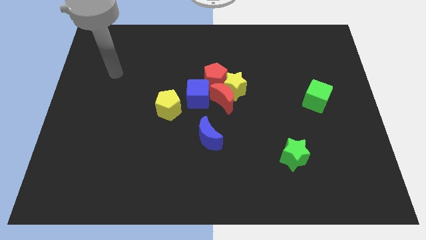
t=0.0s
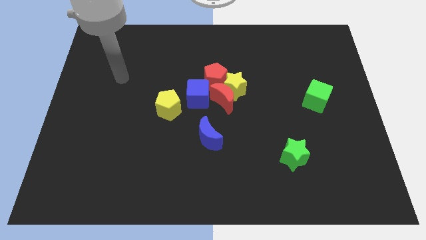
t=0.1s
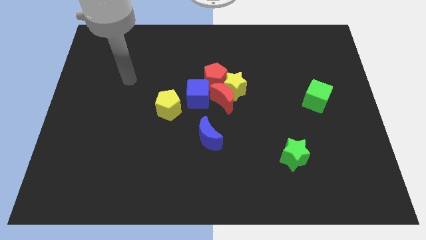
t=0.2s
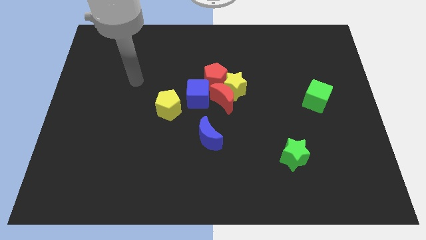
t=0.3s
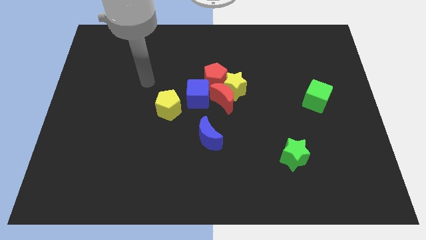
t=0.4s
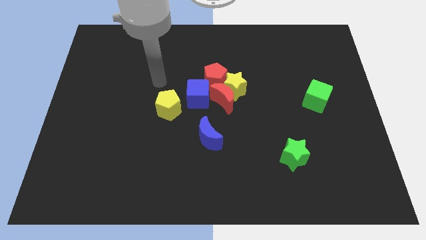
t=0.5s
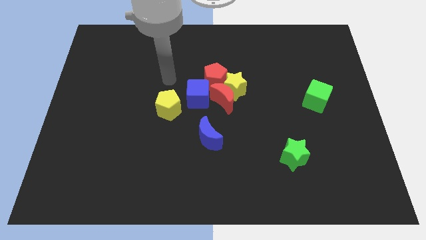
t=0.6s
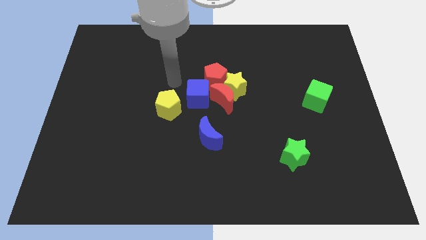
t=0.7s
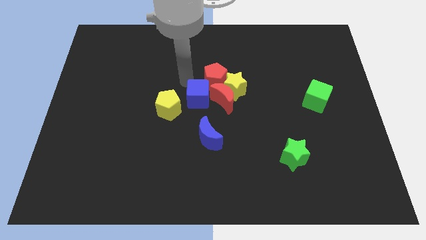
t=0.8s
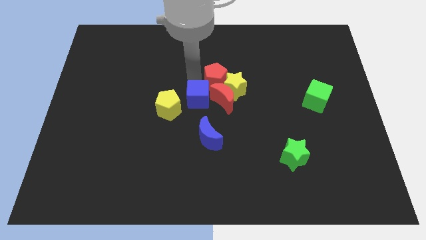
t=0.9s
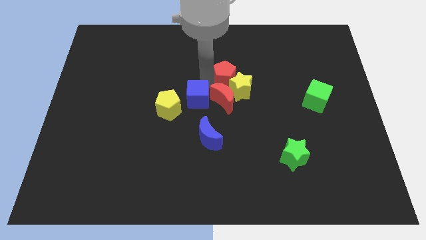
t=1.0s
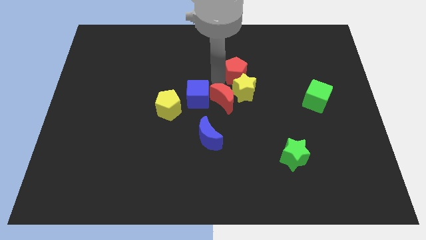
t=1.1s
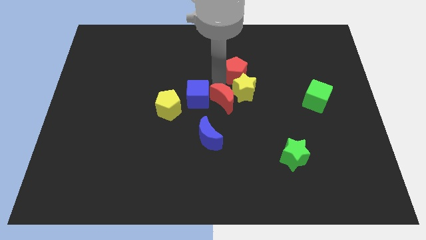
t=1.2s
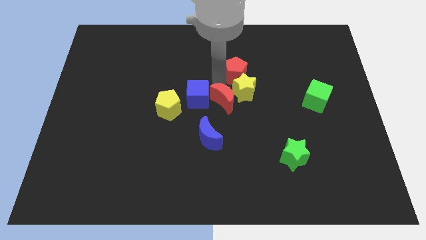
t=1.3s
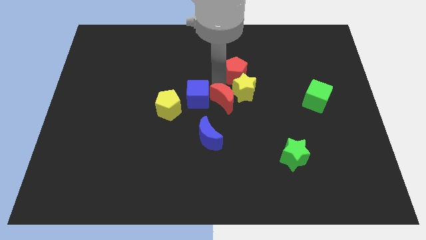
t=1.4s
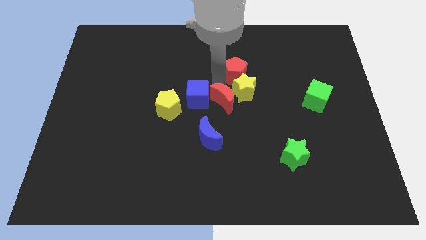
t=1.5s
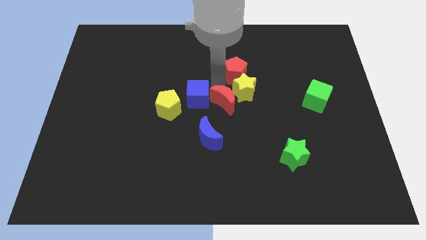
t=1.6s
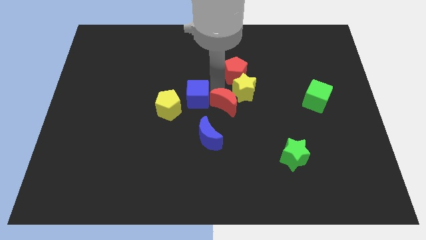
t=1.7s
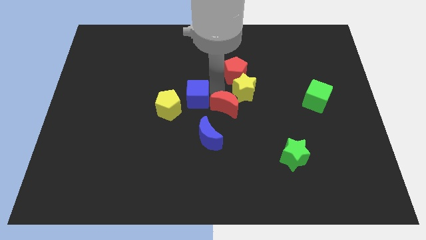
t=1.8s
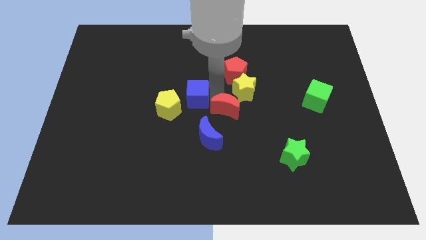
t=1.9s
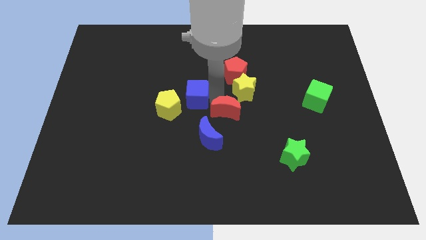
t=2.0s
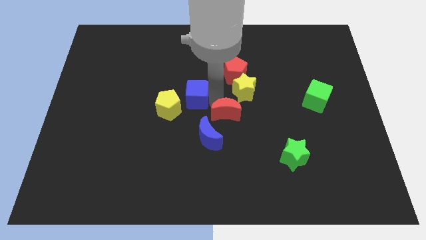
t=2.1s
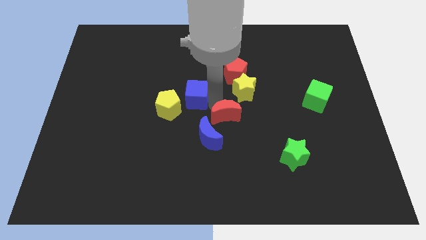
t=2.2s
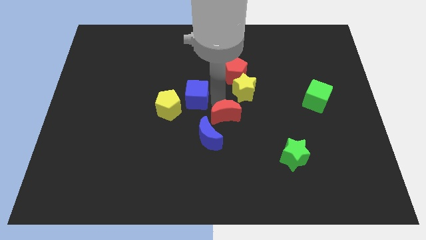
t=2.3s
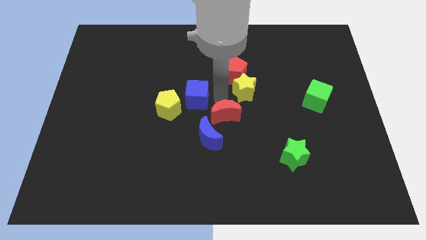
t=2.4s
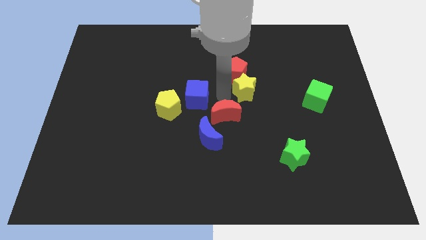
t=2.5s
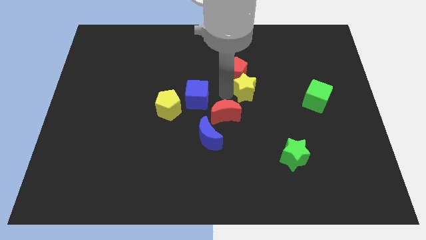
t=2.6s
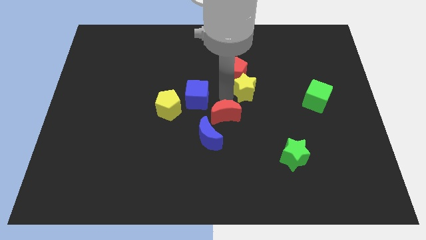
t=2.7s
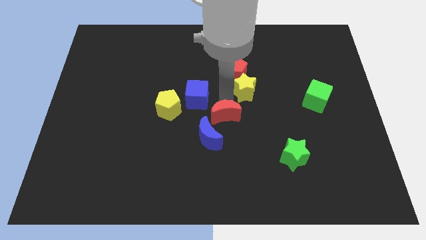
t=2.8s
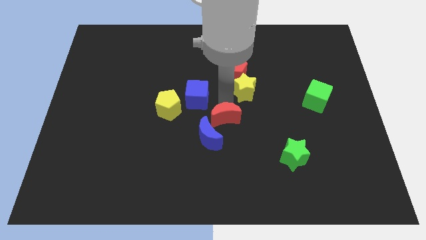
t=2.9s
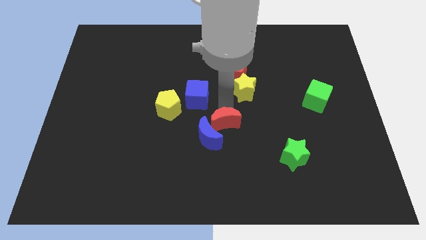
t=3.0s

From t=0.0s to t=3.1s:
move the red moon away from the group of blocks

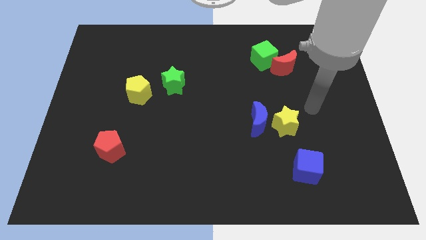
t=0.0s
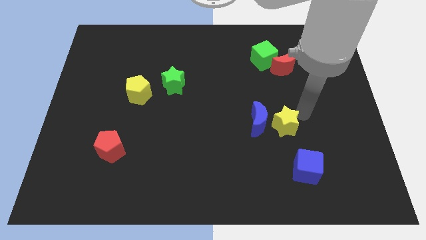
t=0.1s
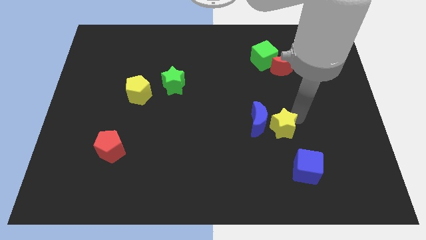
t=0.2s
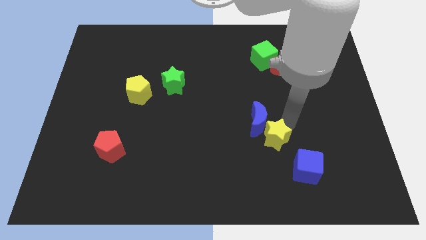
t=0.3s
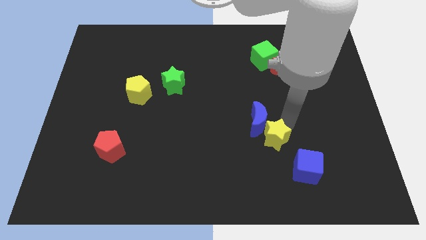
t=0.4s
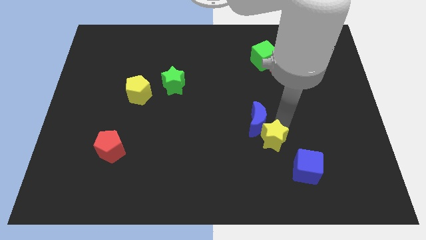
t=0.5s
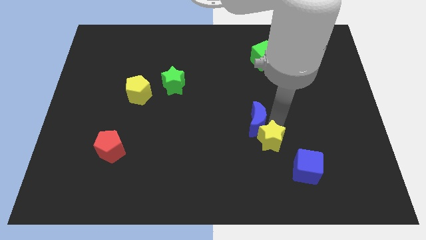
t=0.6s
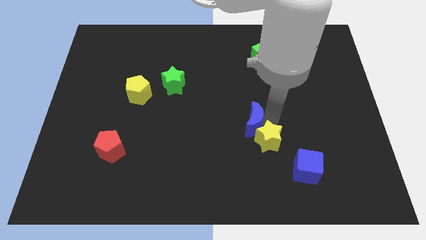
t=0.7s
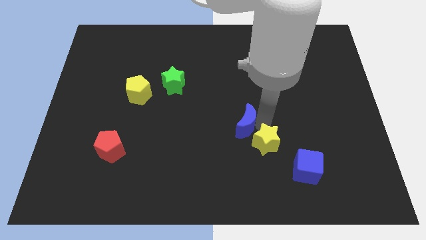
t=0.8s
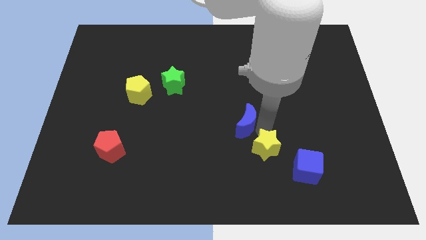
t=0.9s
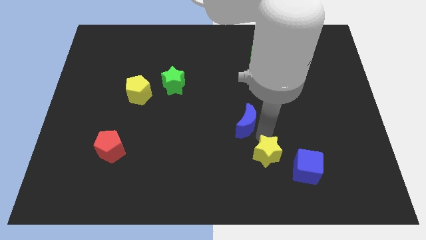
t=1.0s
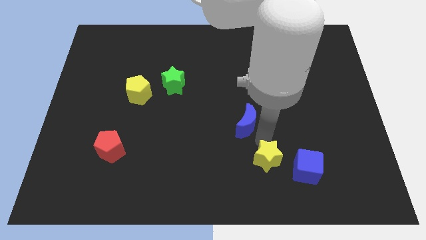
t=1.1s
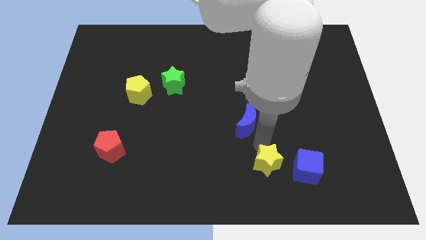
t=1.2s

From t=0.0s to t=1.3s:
move the blue moon away from the yellow star

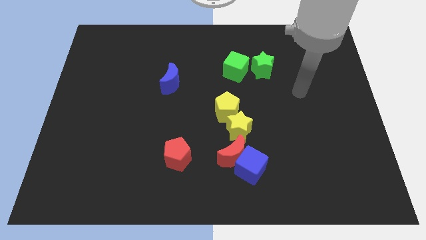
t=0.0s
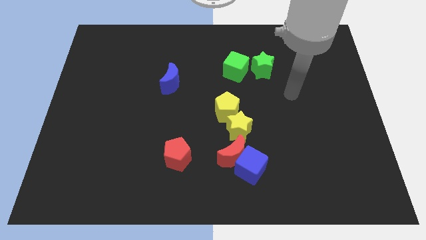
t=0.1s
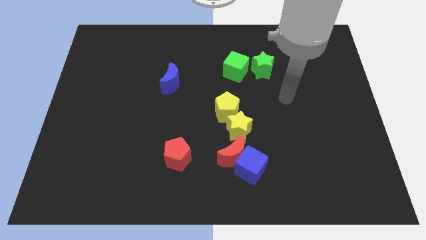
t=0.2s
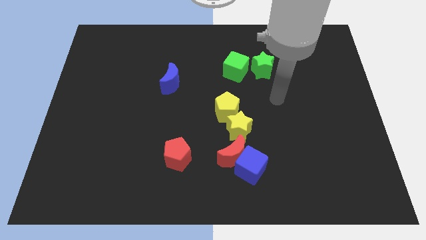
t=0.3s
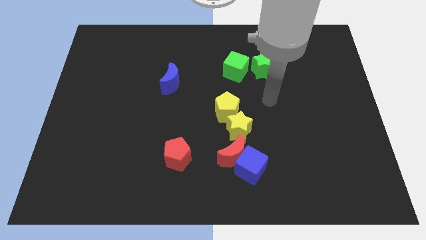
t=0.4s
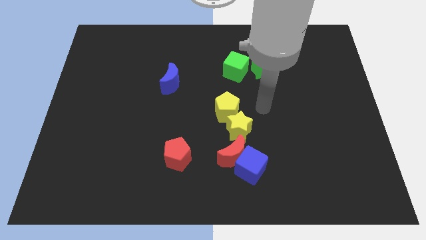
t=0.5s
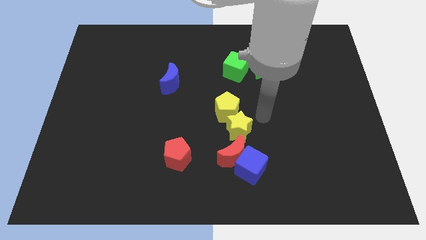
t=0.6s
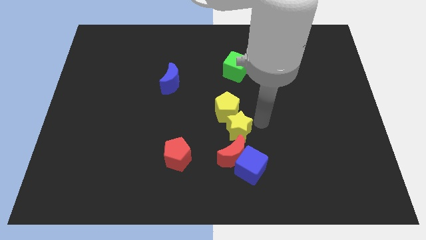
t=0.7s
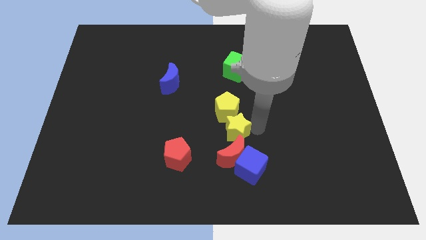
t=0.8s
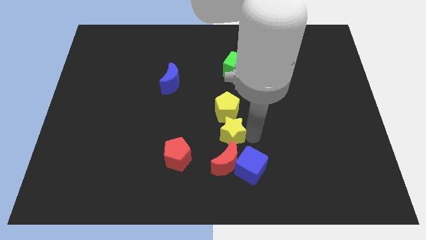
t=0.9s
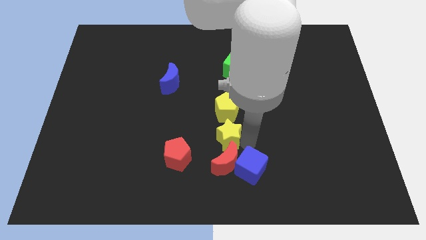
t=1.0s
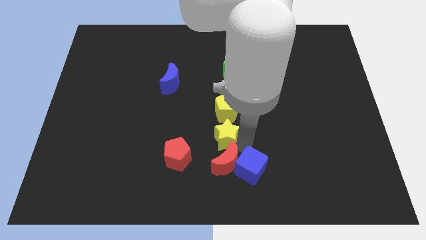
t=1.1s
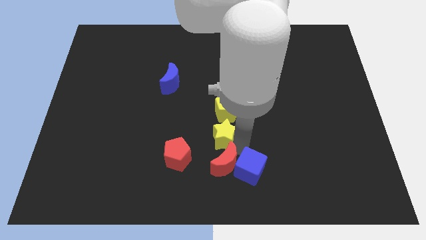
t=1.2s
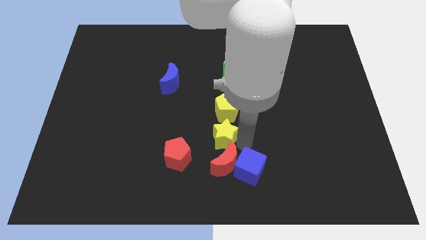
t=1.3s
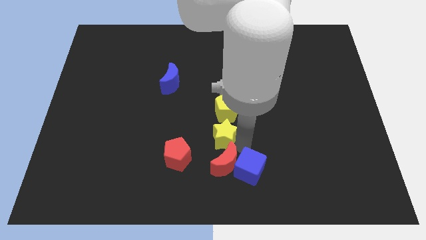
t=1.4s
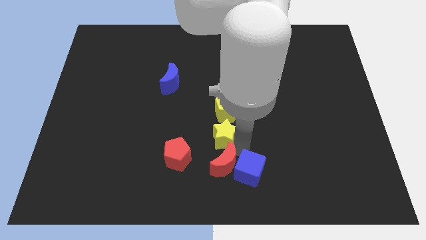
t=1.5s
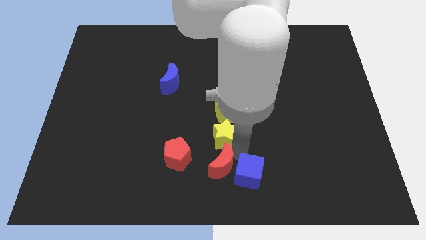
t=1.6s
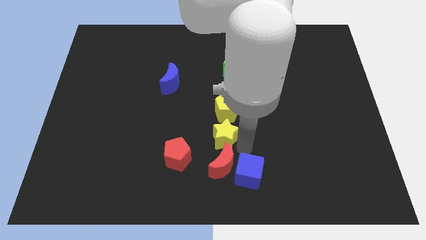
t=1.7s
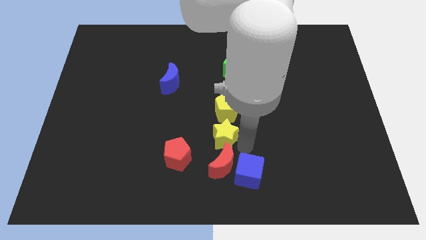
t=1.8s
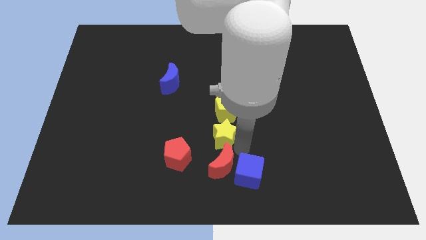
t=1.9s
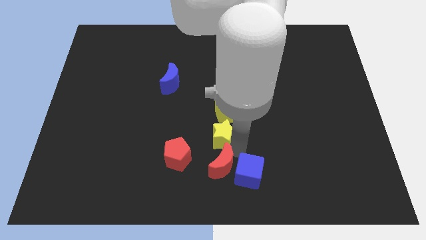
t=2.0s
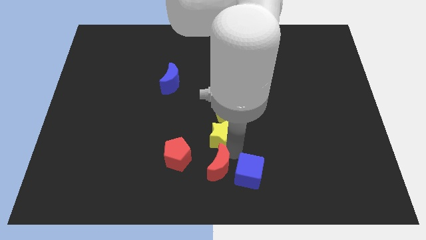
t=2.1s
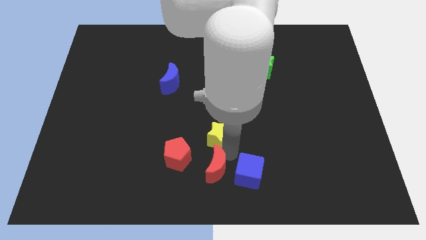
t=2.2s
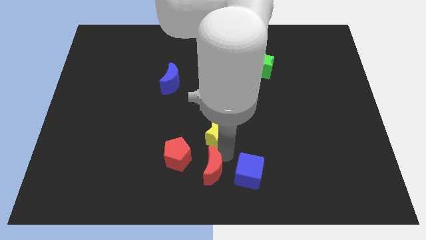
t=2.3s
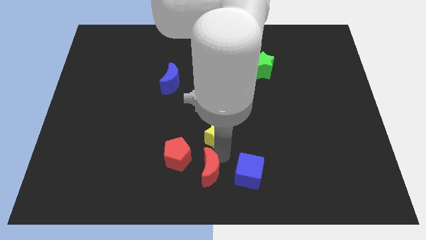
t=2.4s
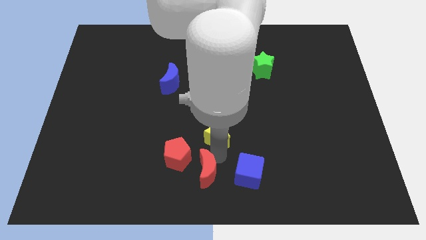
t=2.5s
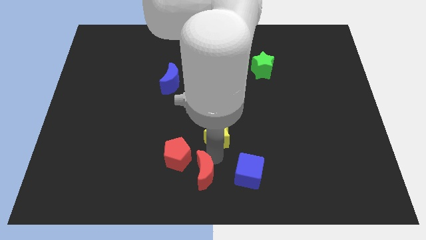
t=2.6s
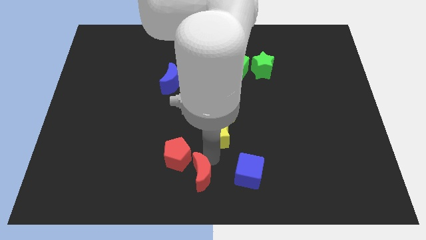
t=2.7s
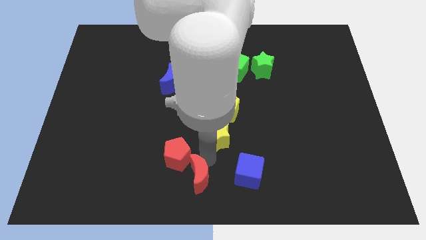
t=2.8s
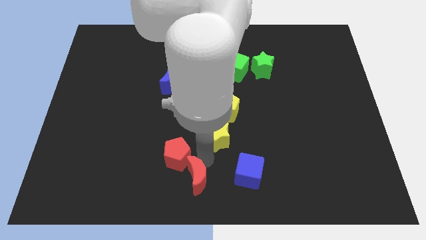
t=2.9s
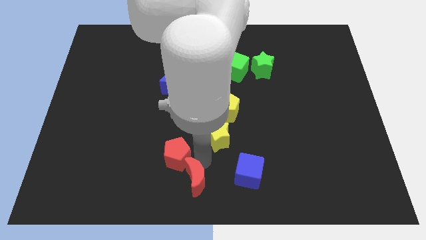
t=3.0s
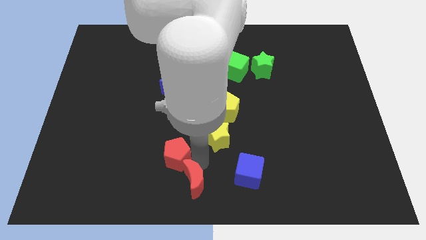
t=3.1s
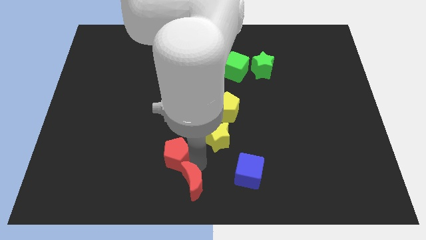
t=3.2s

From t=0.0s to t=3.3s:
pull the red moon apart from the blue cube and yellow star

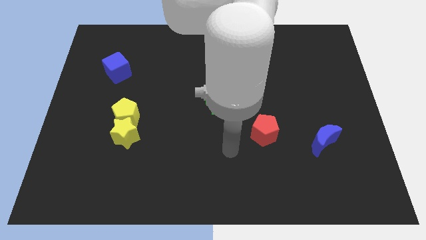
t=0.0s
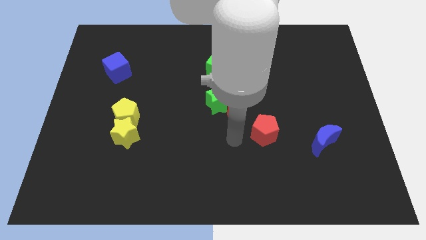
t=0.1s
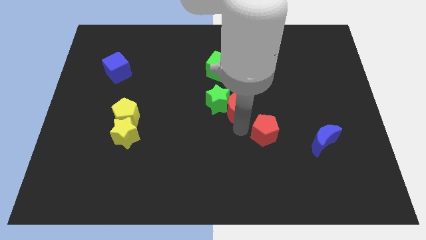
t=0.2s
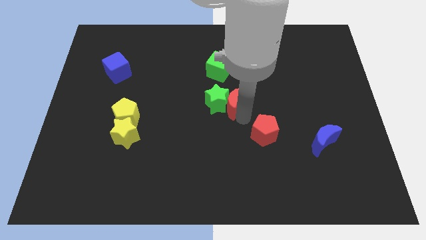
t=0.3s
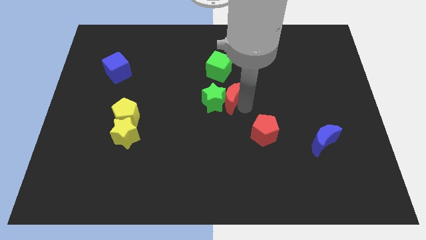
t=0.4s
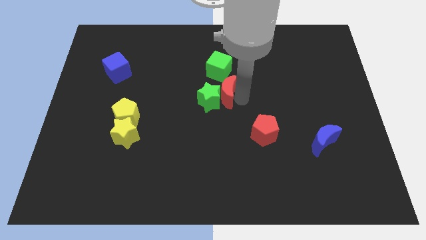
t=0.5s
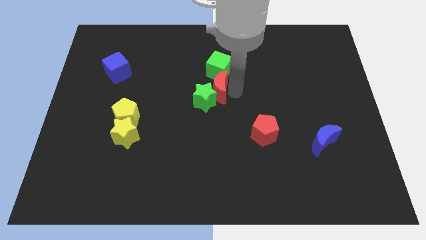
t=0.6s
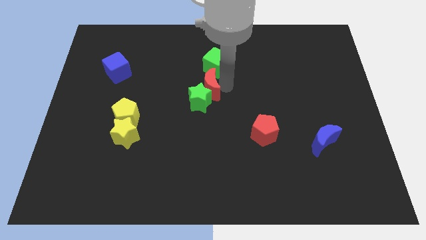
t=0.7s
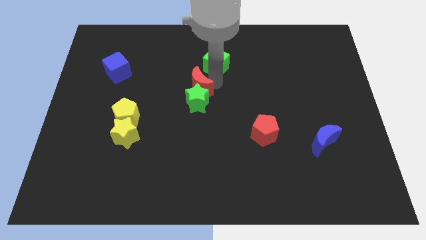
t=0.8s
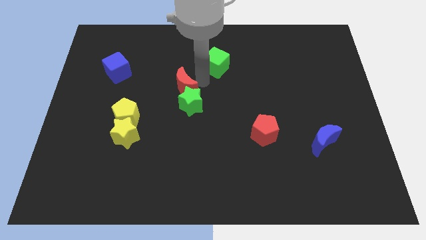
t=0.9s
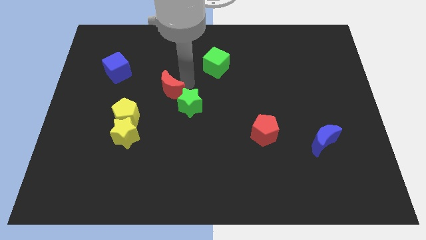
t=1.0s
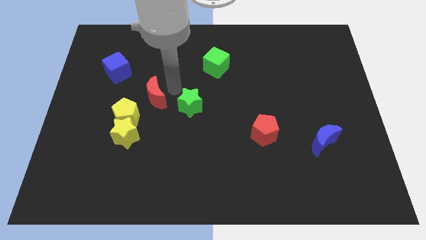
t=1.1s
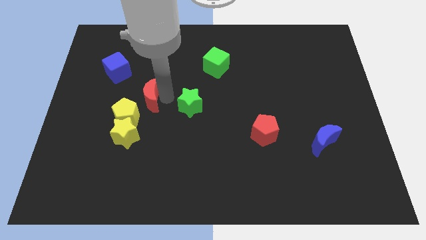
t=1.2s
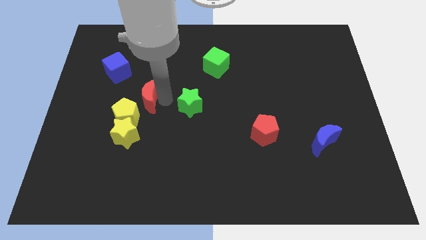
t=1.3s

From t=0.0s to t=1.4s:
pull the green star apart from the red moon

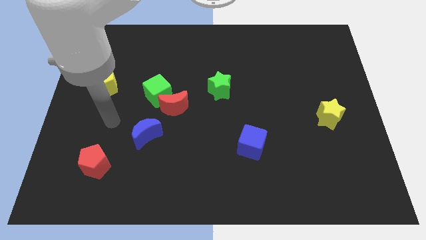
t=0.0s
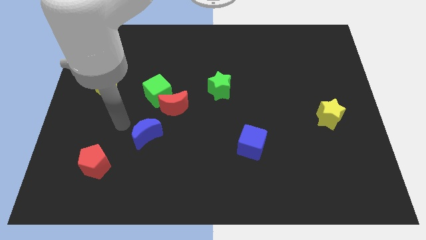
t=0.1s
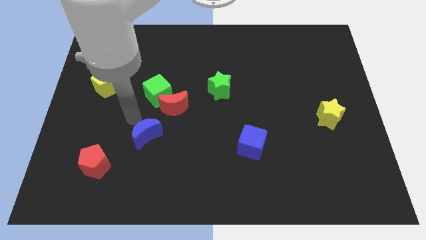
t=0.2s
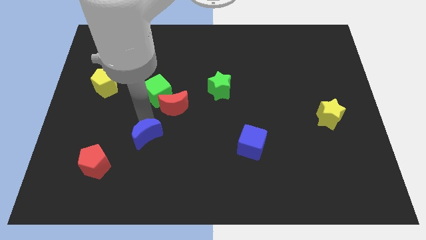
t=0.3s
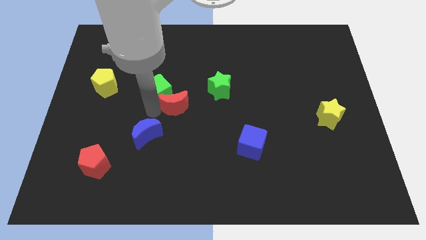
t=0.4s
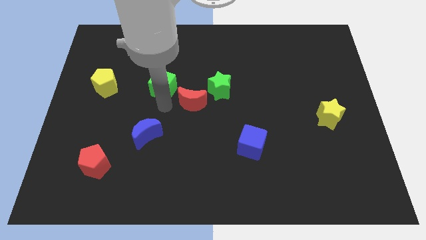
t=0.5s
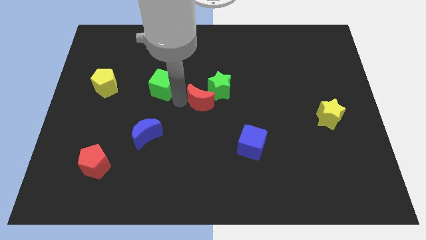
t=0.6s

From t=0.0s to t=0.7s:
pull the green cube apart from the red moon
